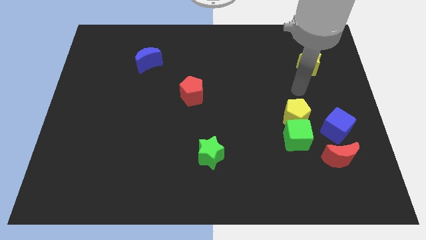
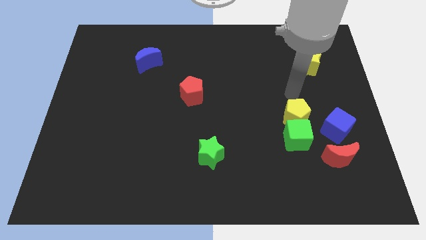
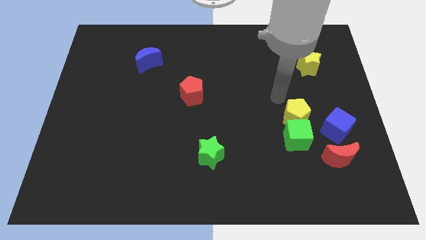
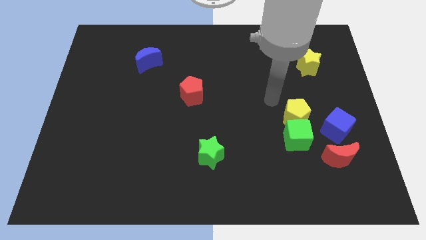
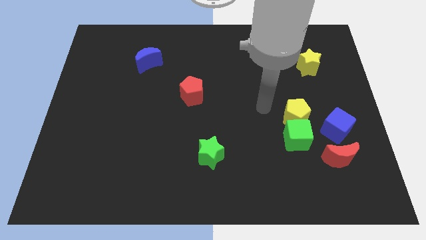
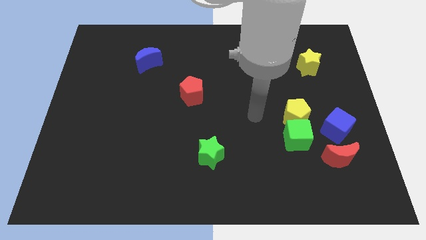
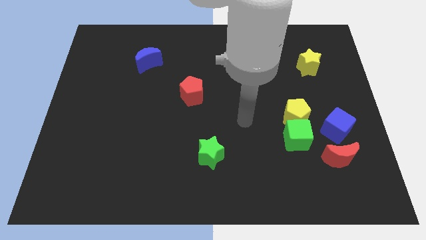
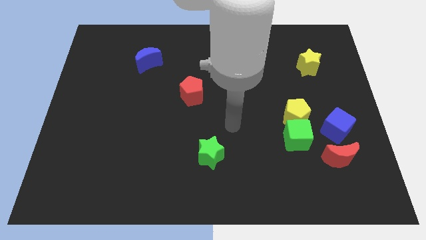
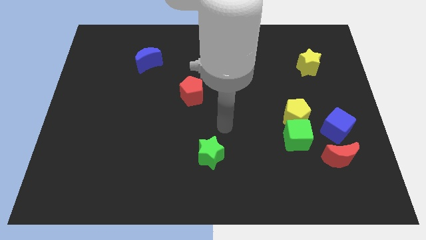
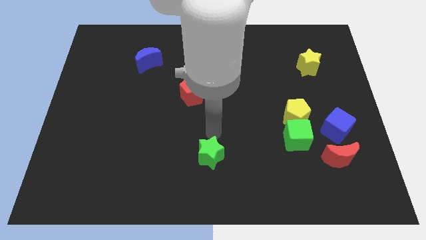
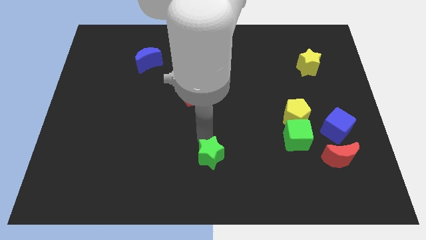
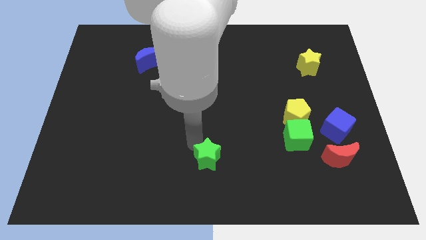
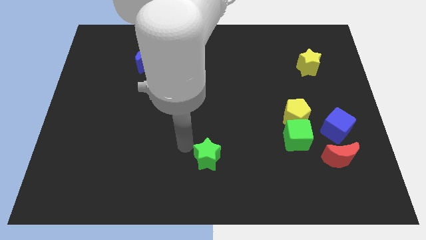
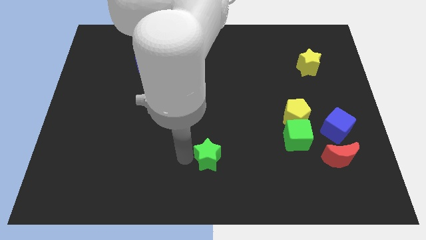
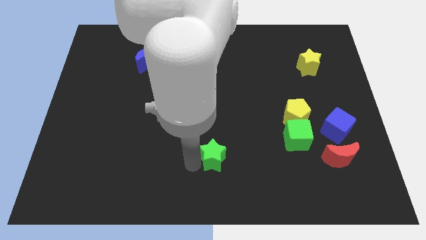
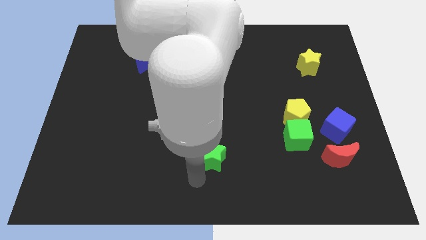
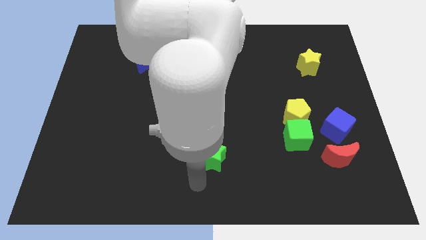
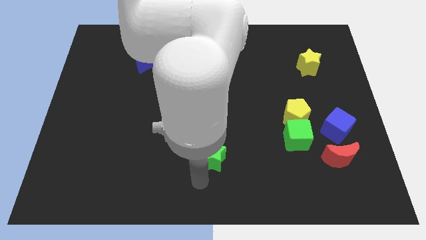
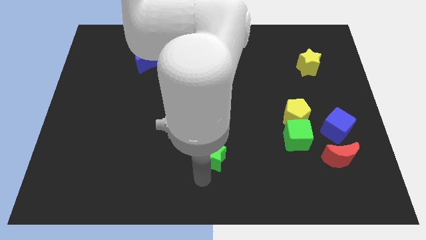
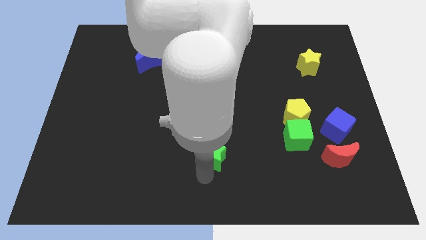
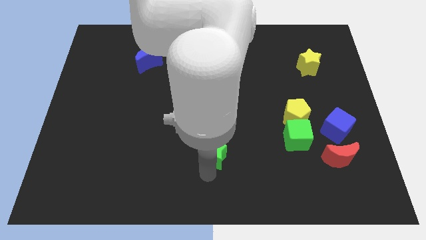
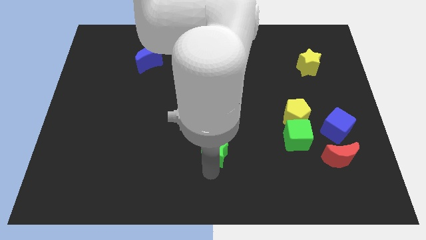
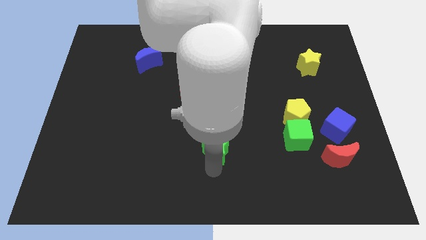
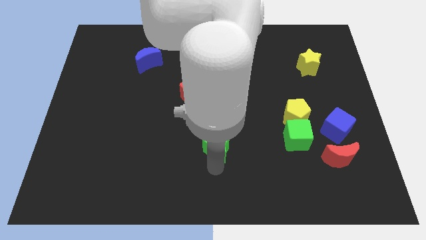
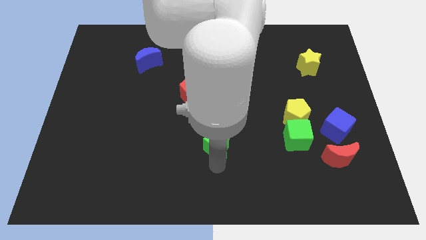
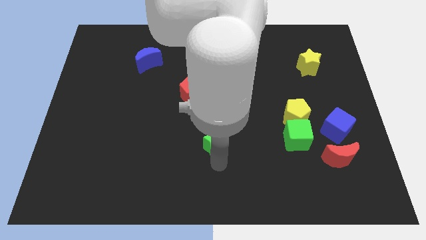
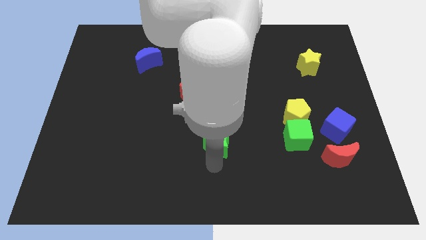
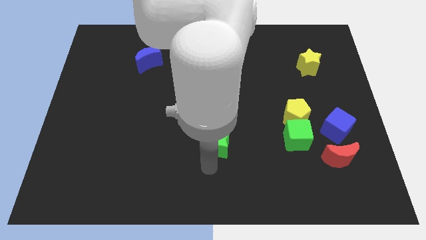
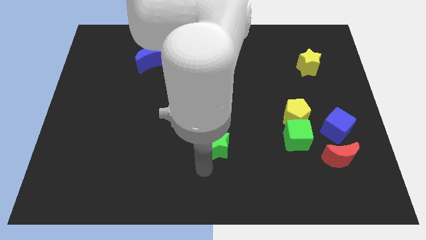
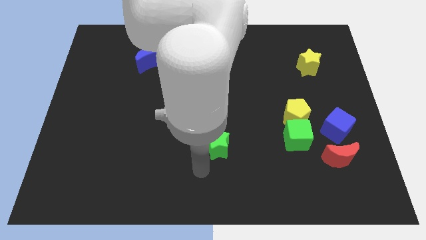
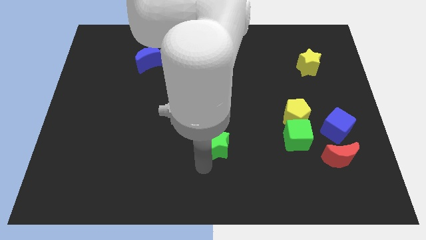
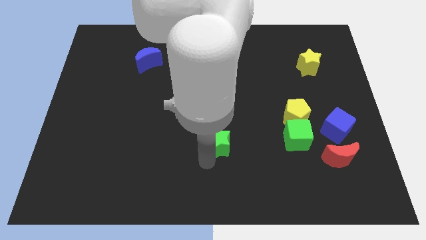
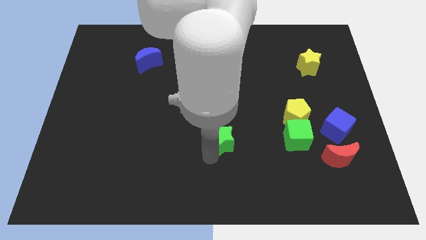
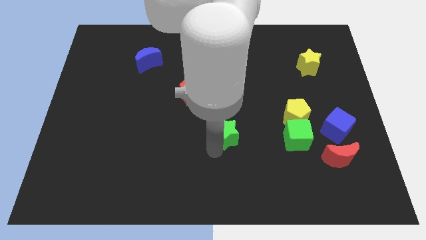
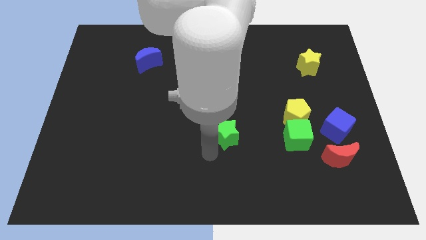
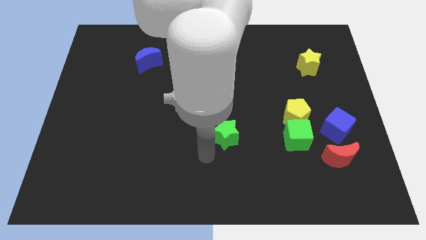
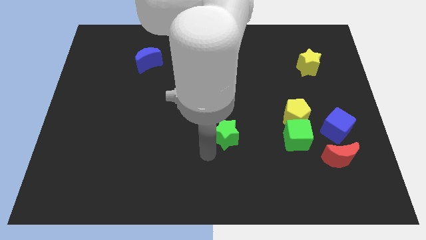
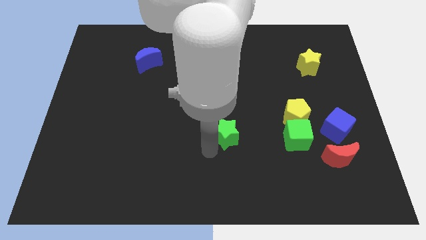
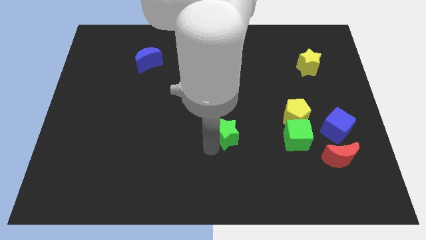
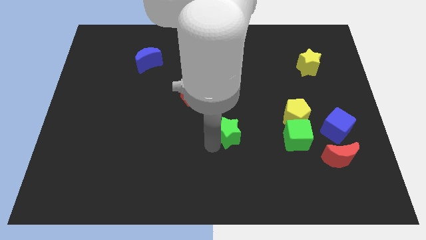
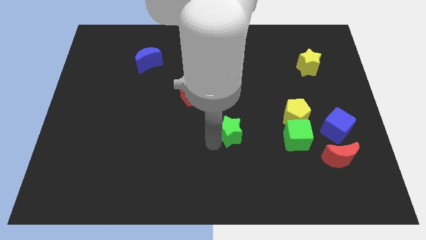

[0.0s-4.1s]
push the green star up and right diagonally a little

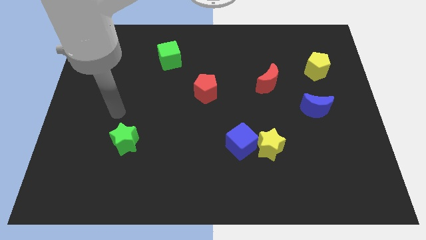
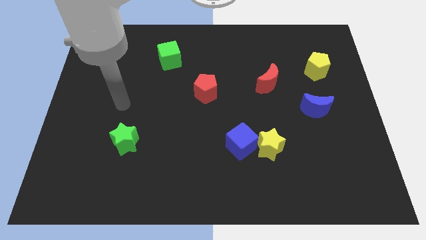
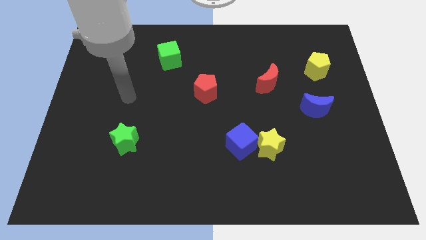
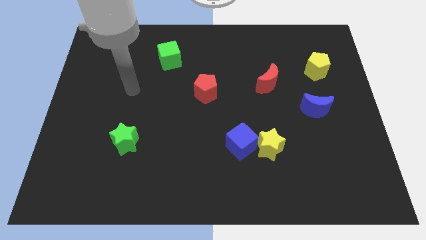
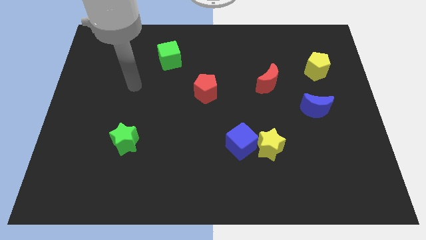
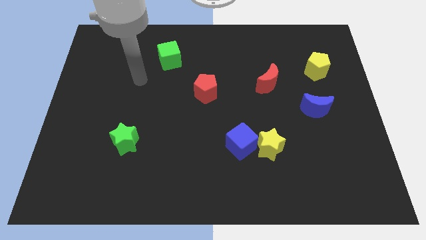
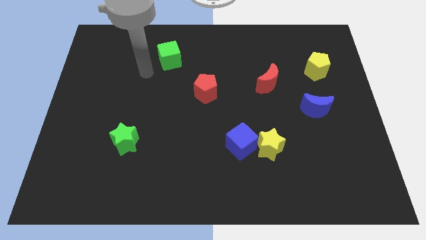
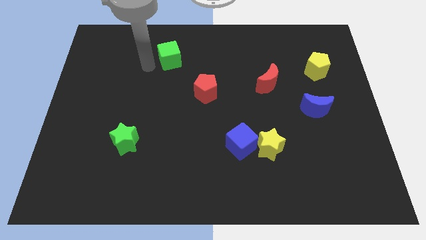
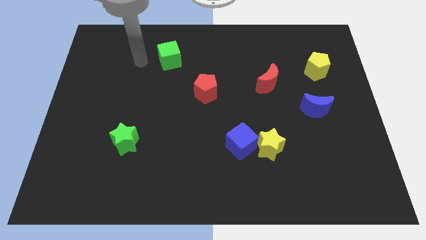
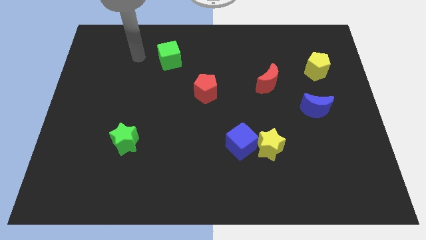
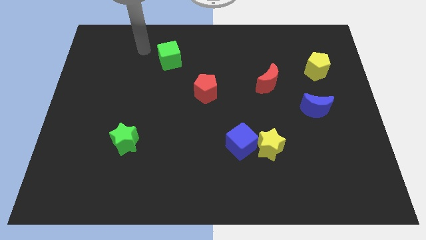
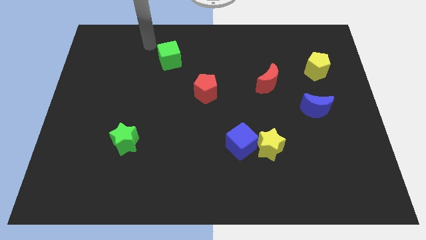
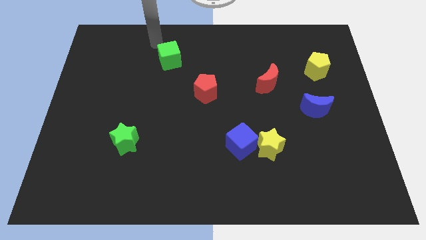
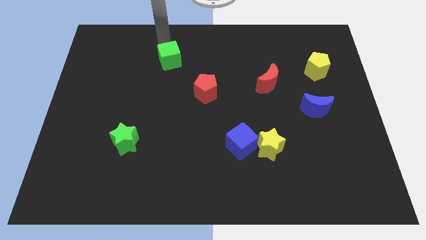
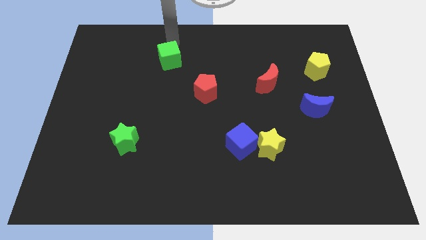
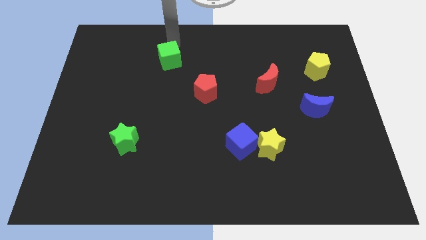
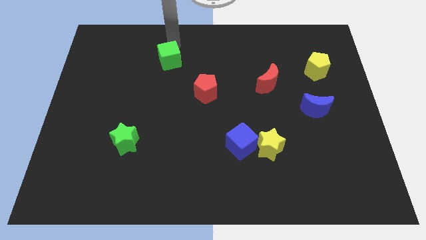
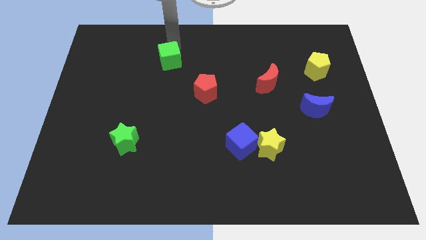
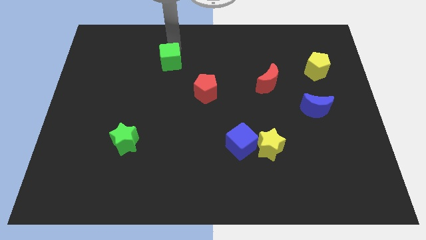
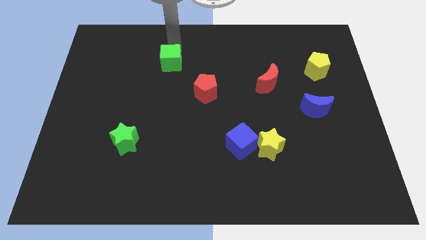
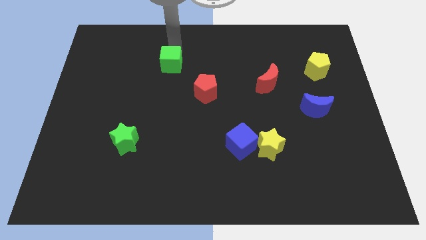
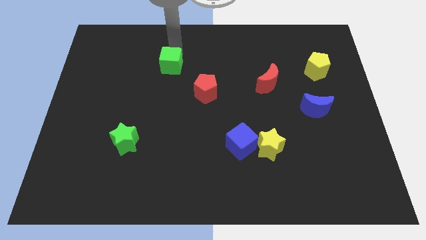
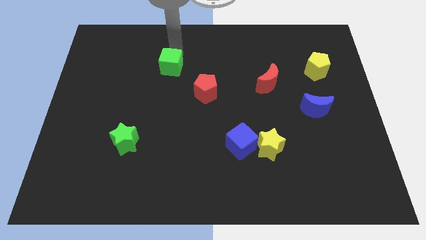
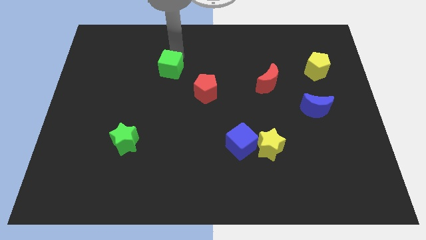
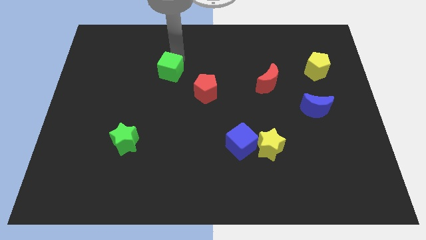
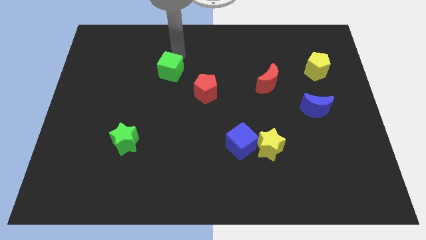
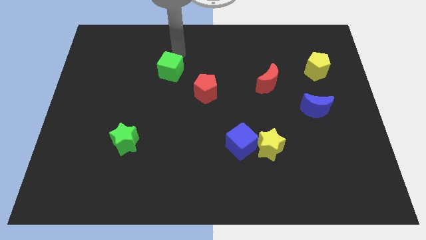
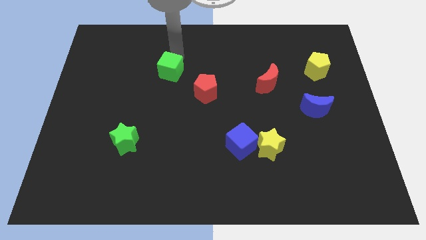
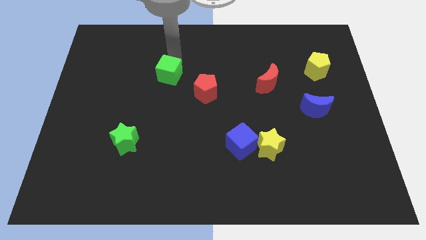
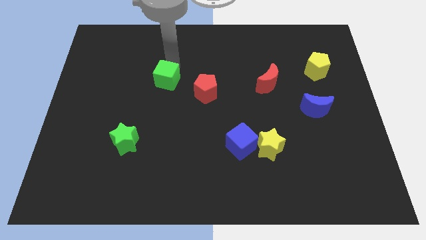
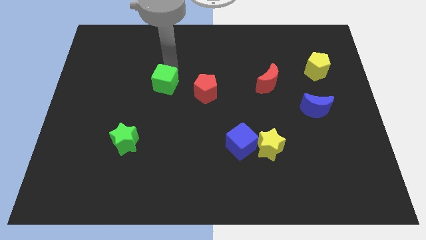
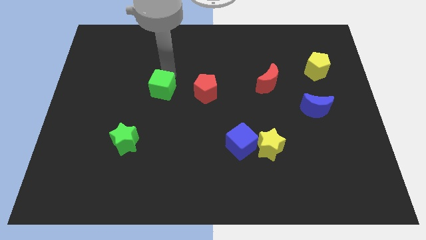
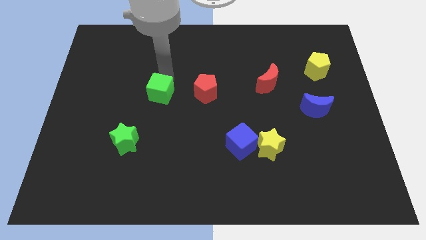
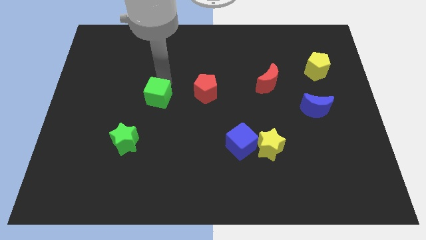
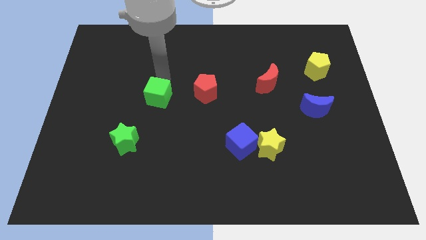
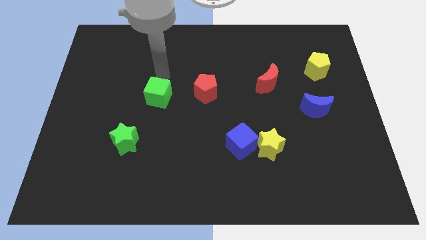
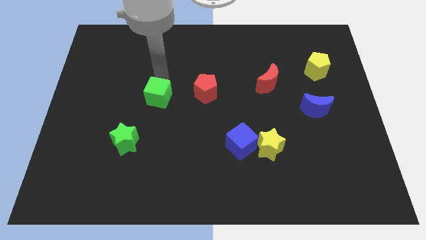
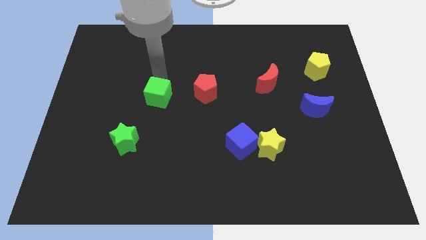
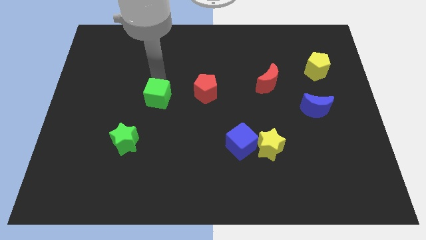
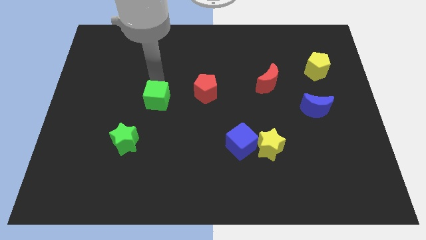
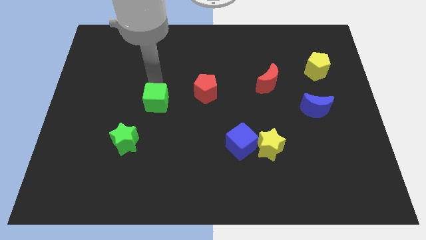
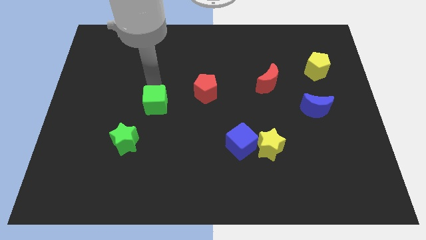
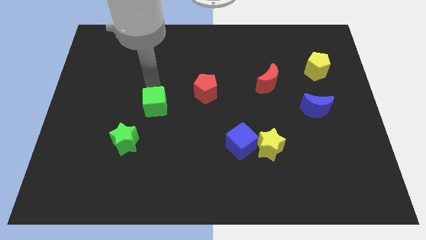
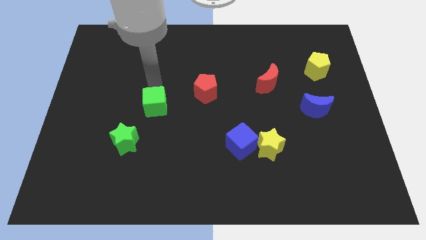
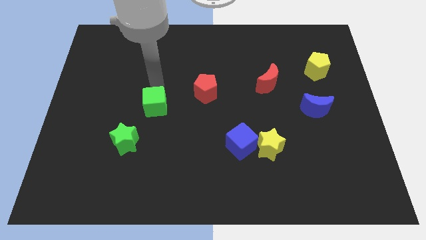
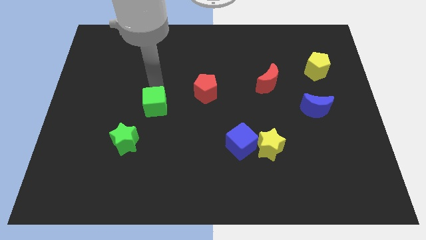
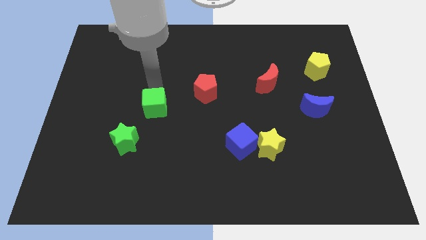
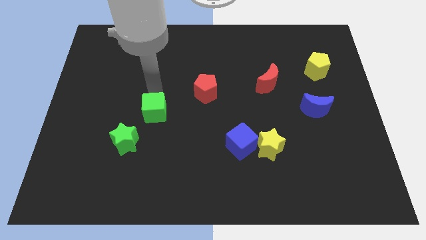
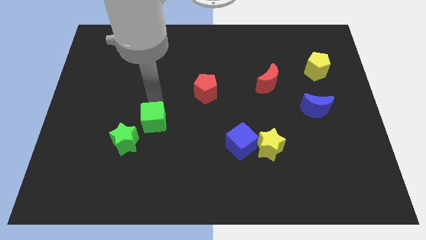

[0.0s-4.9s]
push the green cube downwards
